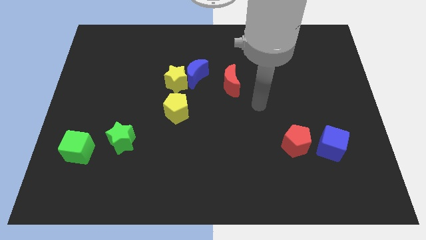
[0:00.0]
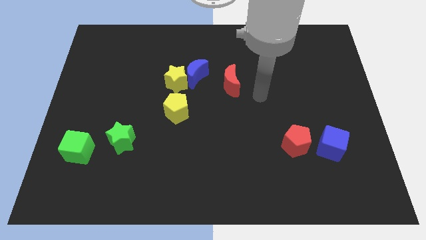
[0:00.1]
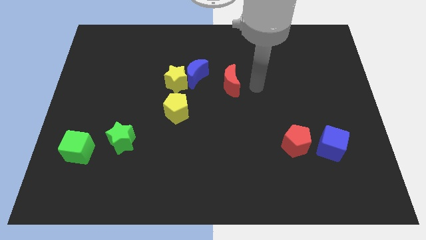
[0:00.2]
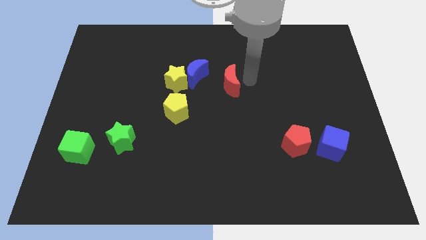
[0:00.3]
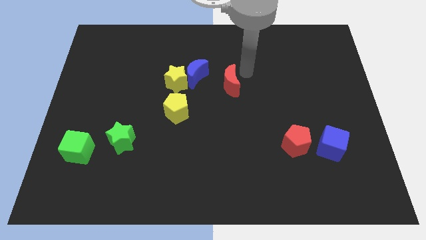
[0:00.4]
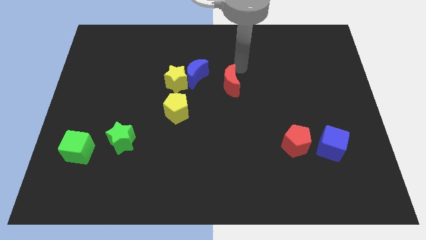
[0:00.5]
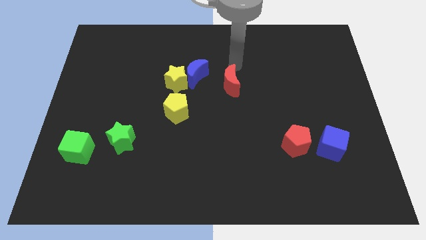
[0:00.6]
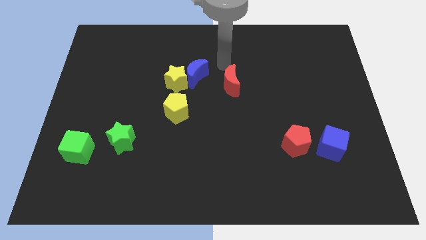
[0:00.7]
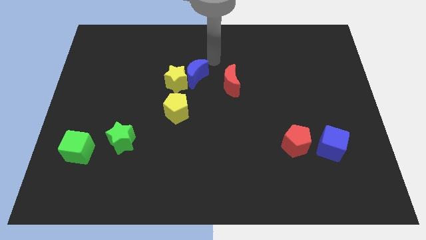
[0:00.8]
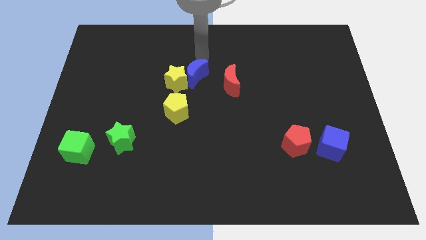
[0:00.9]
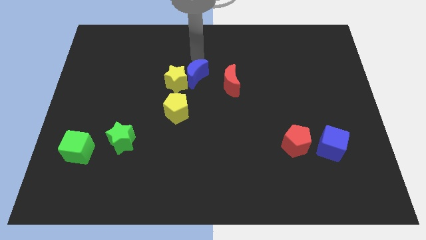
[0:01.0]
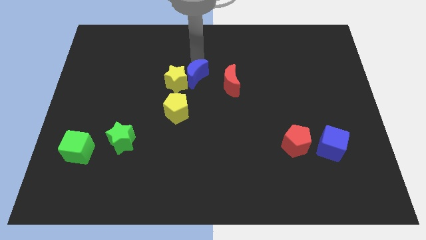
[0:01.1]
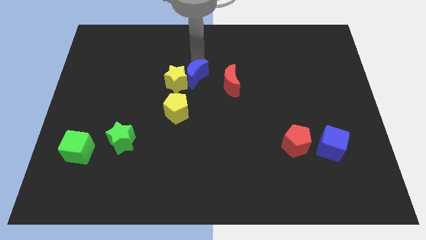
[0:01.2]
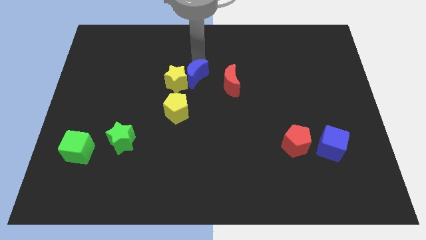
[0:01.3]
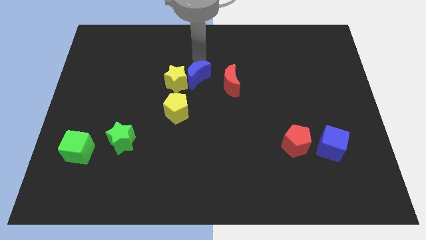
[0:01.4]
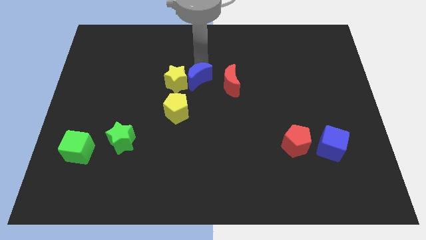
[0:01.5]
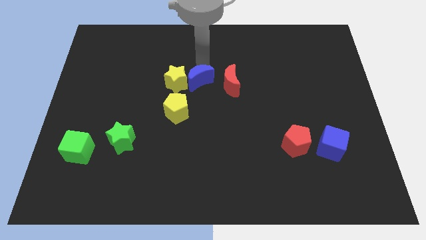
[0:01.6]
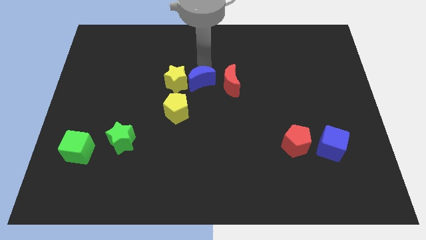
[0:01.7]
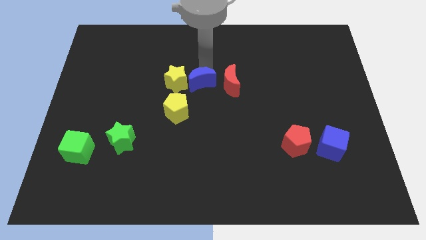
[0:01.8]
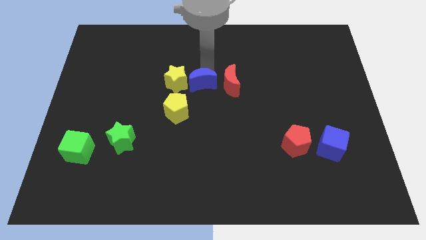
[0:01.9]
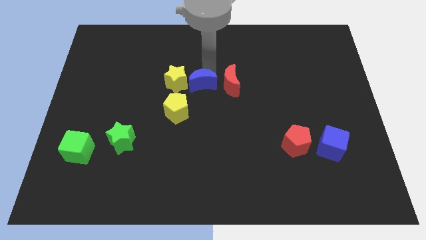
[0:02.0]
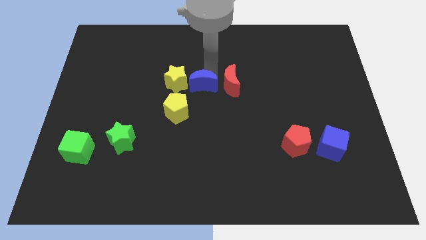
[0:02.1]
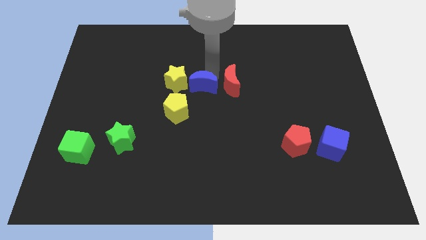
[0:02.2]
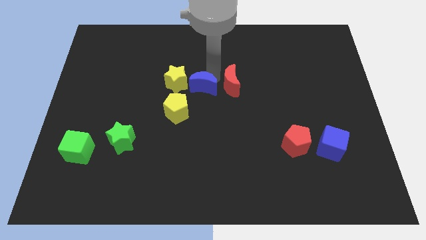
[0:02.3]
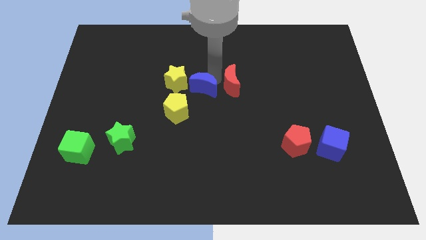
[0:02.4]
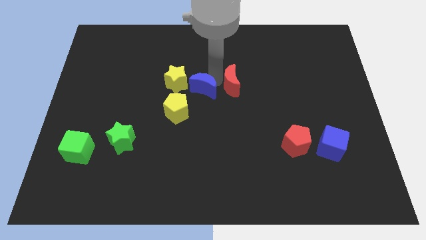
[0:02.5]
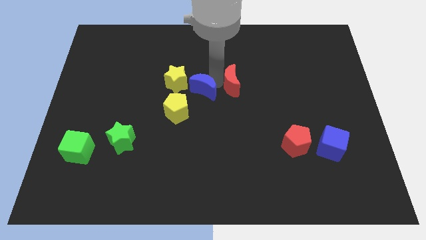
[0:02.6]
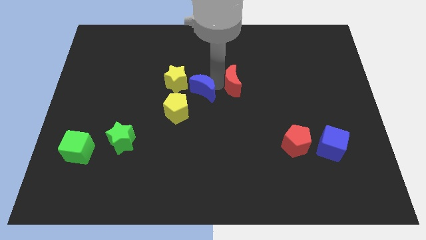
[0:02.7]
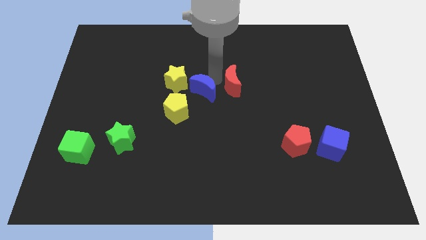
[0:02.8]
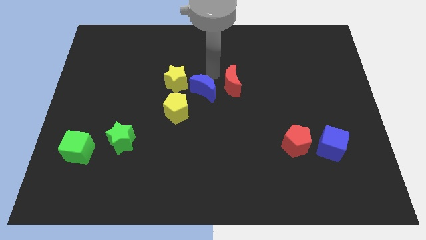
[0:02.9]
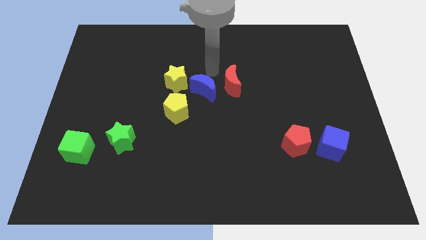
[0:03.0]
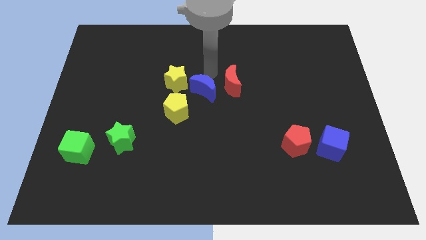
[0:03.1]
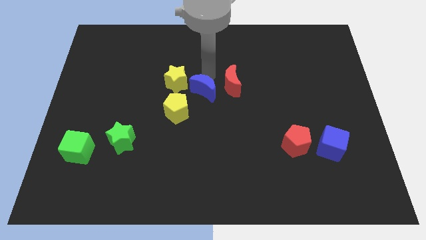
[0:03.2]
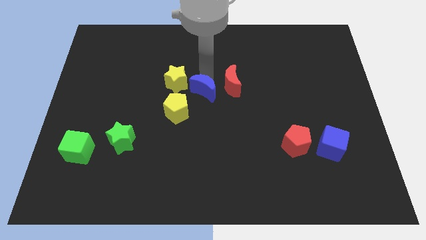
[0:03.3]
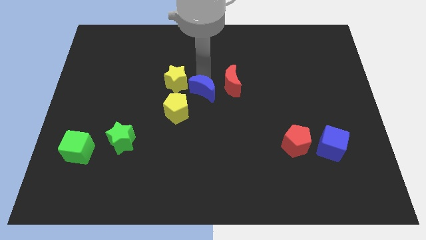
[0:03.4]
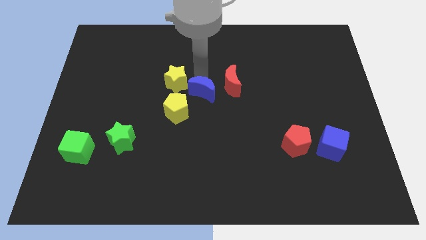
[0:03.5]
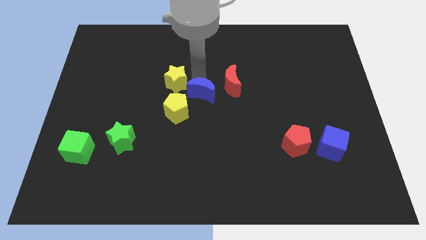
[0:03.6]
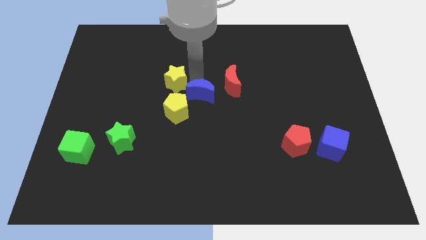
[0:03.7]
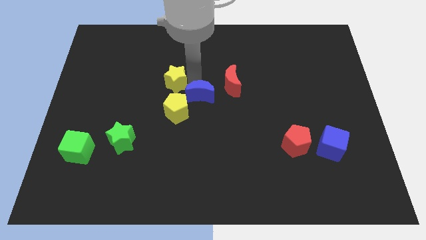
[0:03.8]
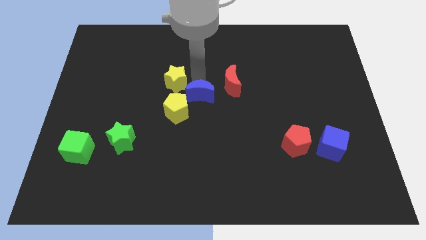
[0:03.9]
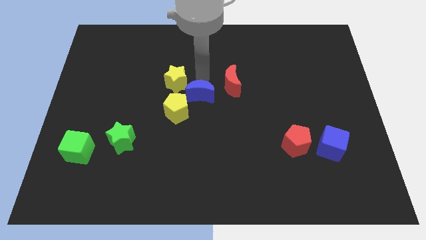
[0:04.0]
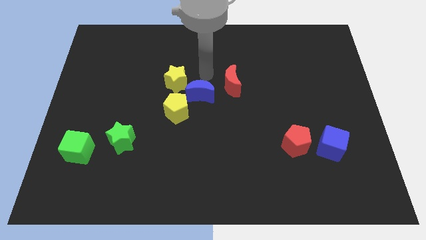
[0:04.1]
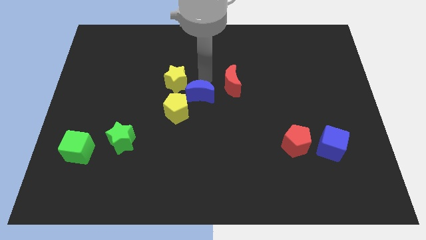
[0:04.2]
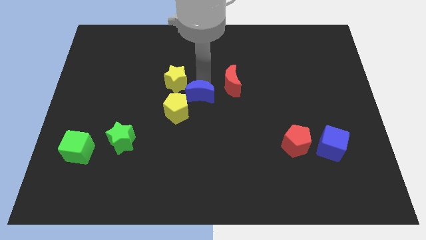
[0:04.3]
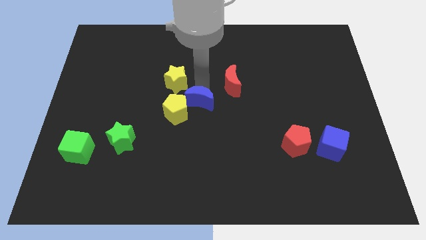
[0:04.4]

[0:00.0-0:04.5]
slide the blue moon slightly downwards

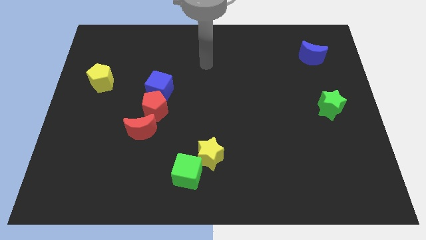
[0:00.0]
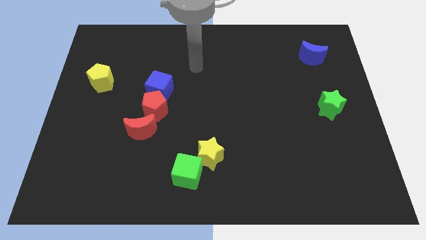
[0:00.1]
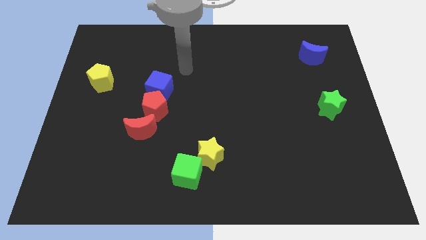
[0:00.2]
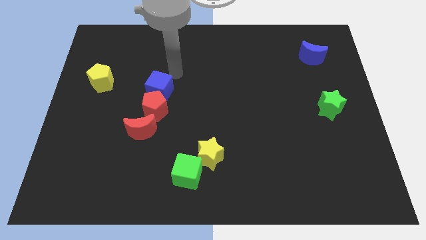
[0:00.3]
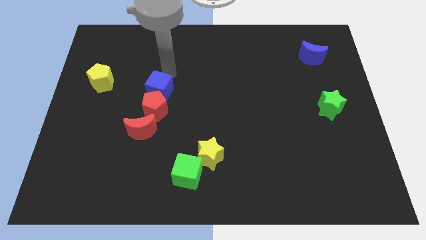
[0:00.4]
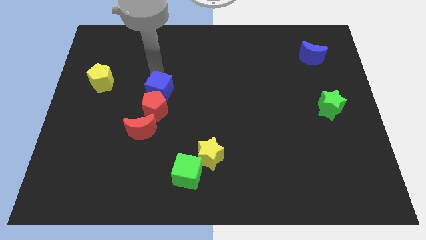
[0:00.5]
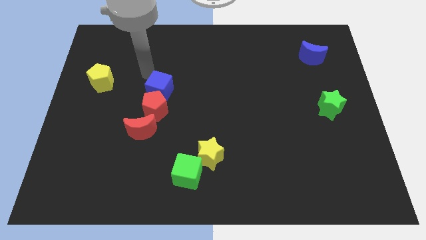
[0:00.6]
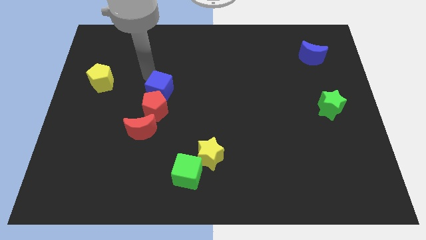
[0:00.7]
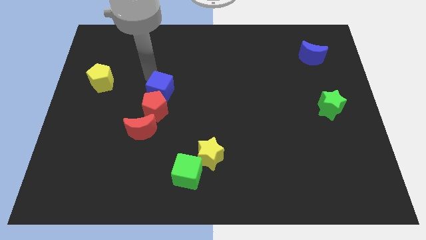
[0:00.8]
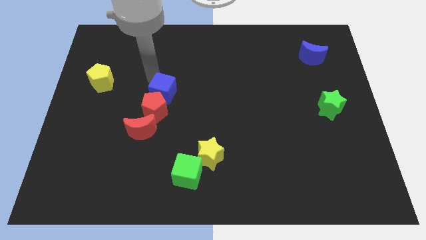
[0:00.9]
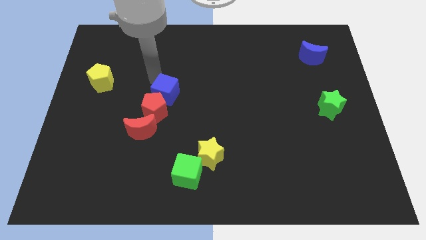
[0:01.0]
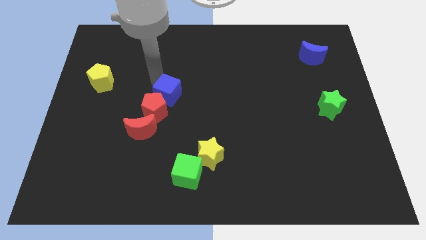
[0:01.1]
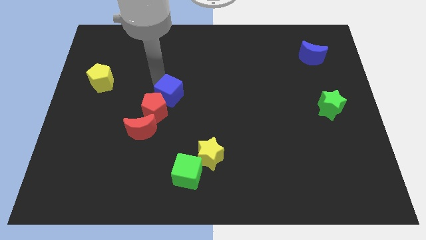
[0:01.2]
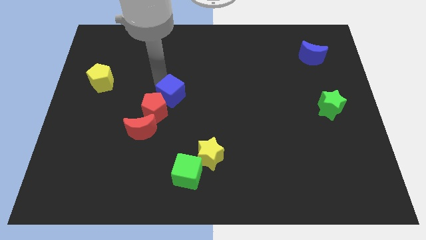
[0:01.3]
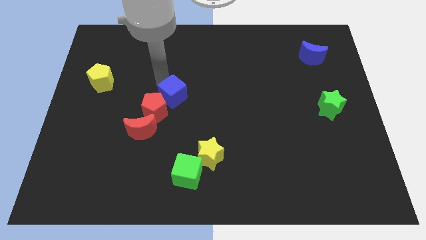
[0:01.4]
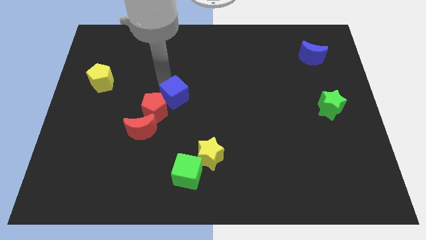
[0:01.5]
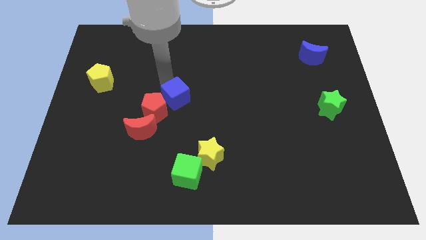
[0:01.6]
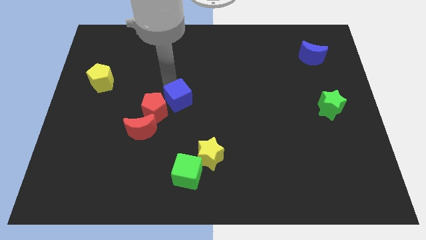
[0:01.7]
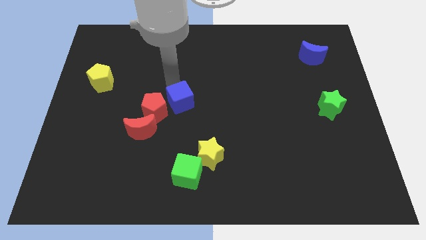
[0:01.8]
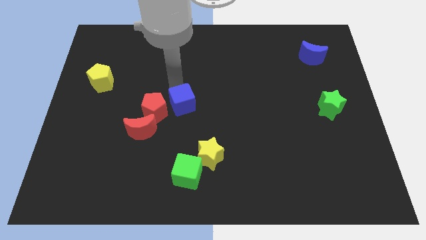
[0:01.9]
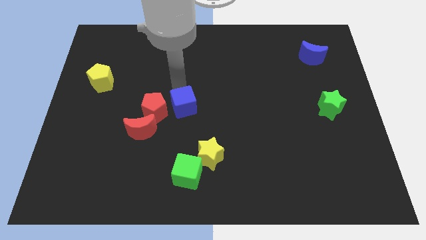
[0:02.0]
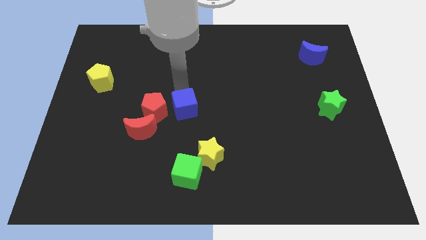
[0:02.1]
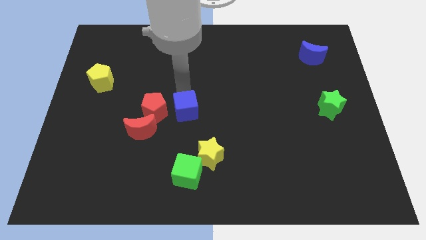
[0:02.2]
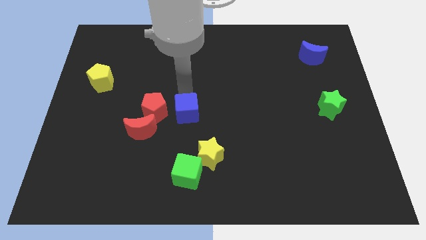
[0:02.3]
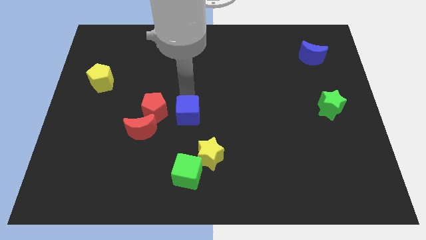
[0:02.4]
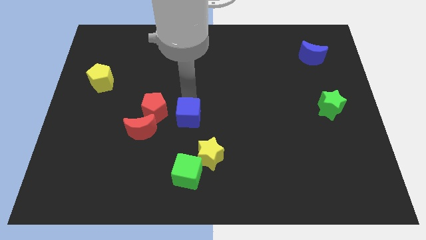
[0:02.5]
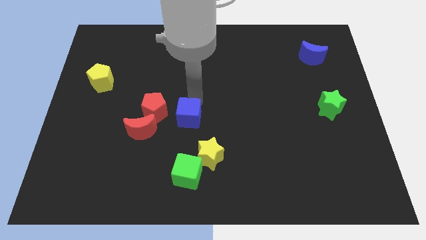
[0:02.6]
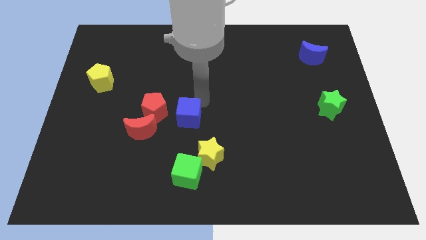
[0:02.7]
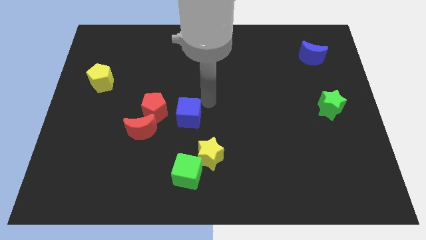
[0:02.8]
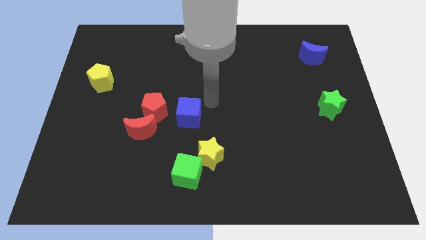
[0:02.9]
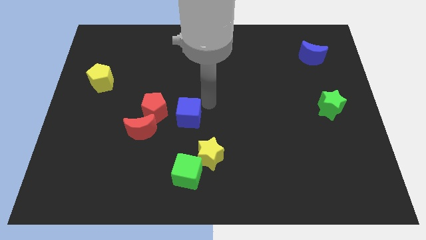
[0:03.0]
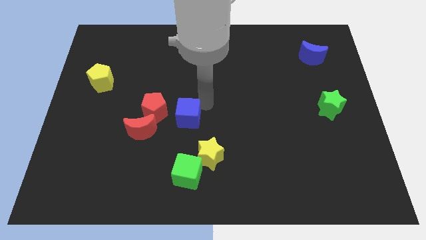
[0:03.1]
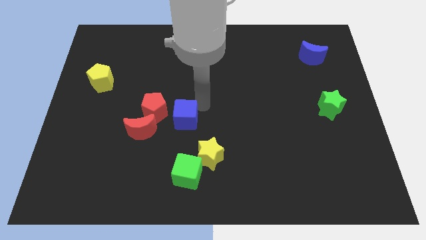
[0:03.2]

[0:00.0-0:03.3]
slightly push the blue cube down

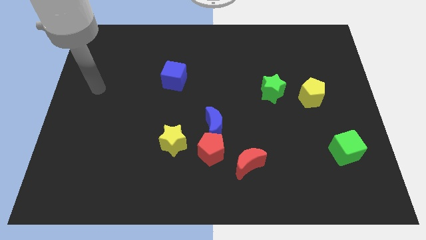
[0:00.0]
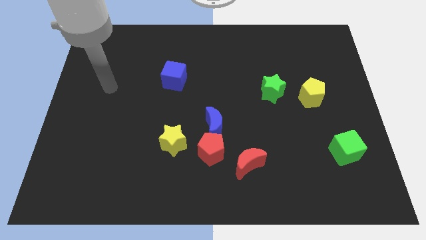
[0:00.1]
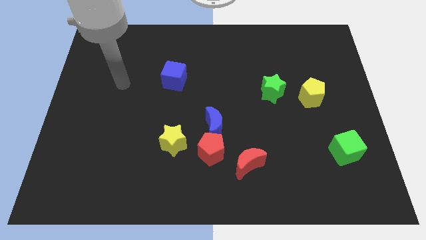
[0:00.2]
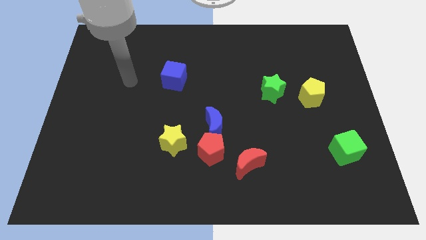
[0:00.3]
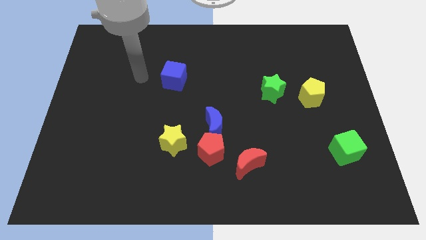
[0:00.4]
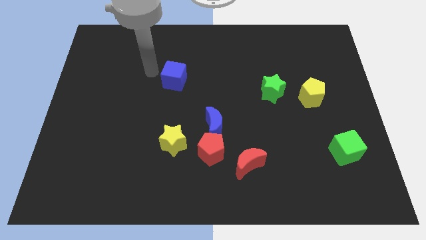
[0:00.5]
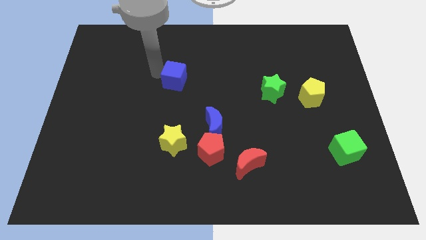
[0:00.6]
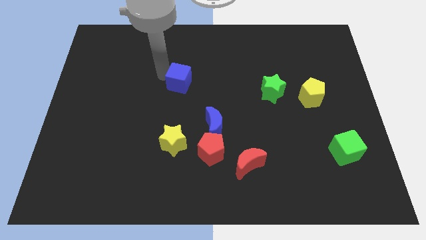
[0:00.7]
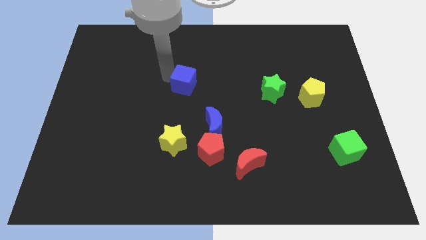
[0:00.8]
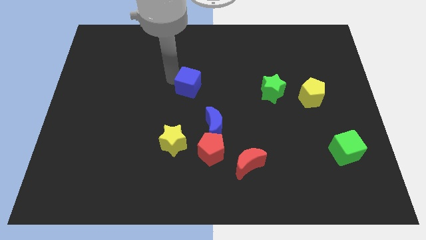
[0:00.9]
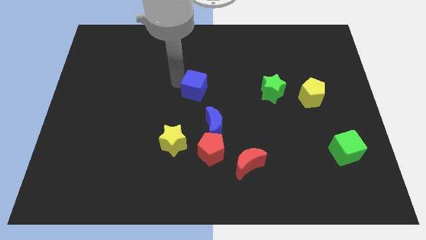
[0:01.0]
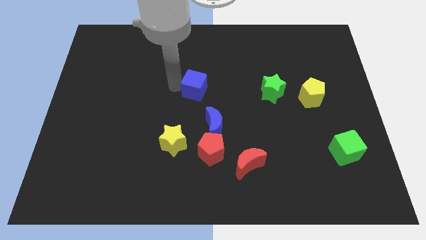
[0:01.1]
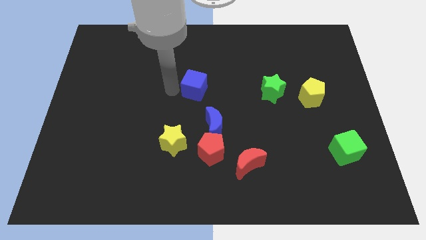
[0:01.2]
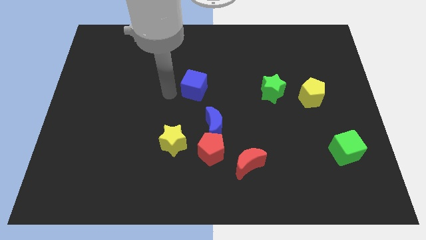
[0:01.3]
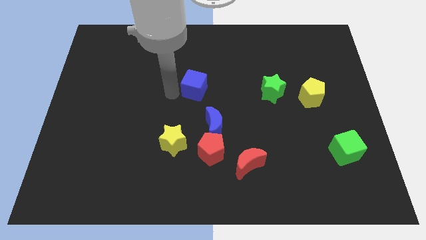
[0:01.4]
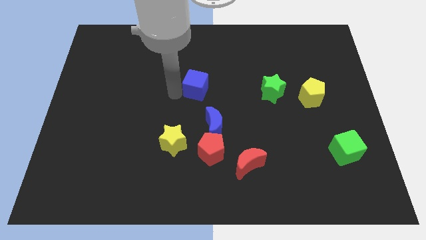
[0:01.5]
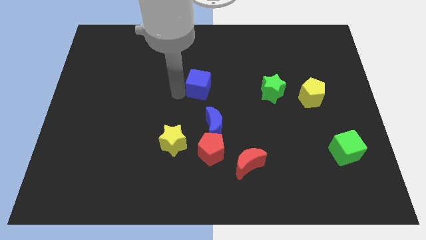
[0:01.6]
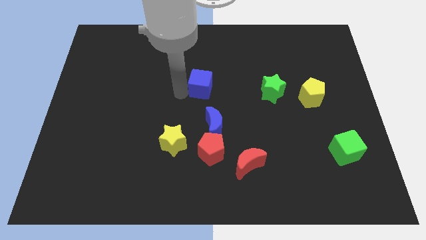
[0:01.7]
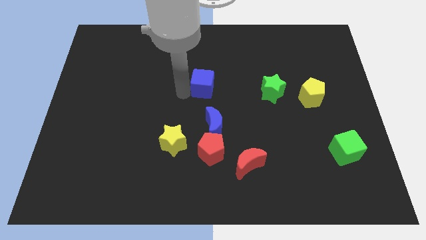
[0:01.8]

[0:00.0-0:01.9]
slide the blue cube right a little bit
